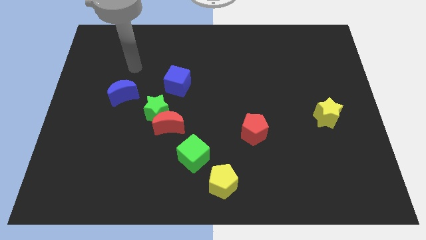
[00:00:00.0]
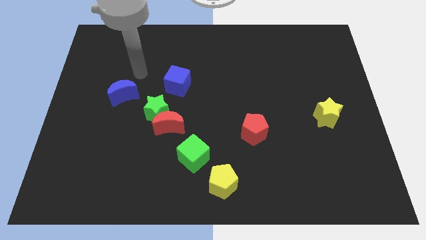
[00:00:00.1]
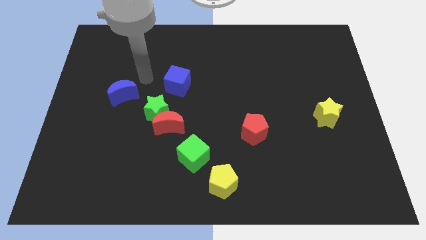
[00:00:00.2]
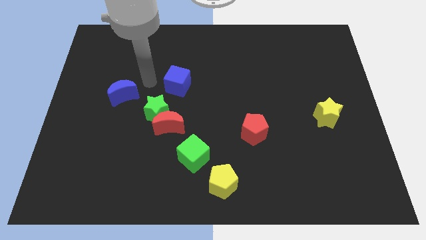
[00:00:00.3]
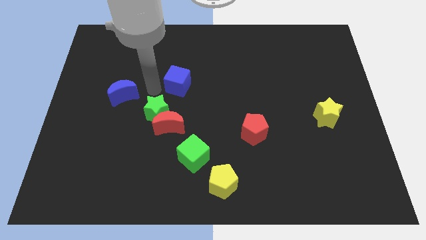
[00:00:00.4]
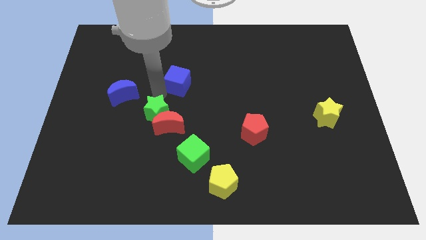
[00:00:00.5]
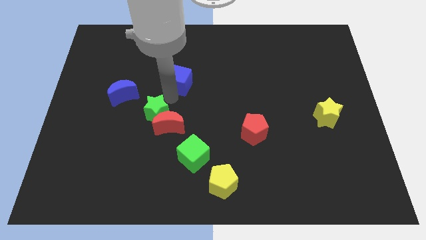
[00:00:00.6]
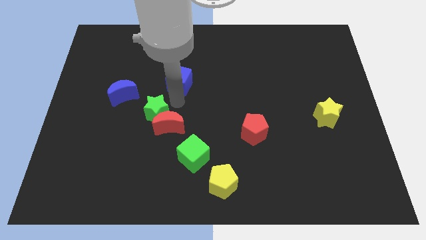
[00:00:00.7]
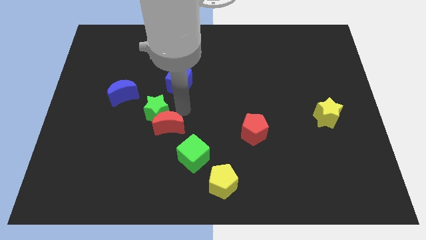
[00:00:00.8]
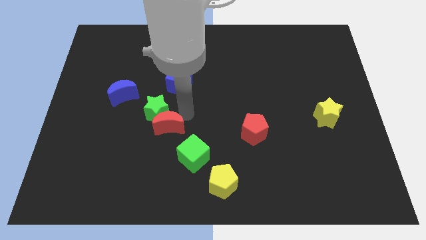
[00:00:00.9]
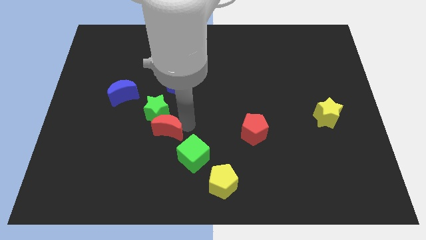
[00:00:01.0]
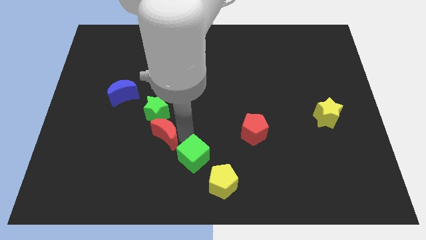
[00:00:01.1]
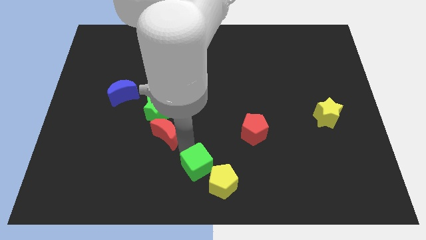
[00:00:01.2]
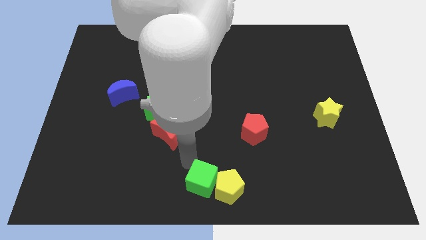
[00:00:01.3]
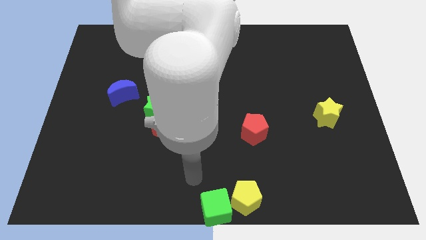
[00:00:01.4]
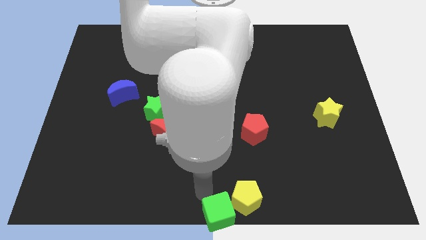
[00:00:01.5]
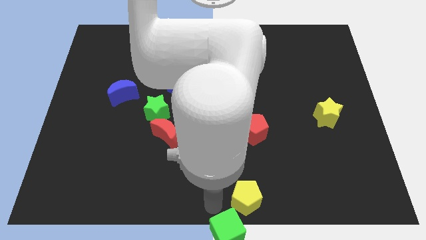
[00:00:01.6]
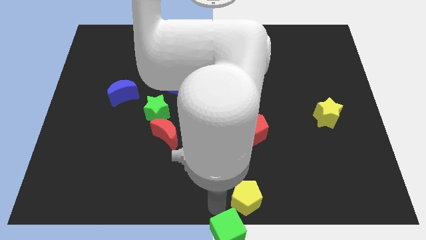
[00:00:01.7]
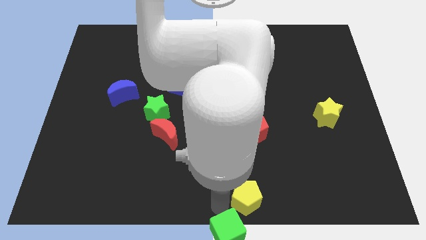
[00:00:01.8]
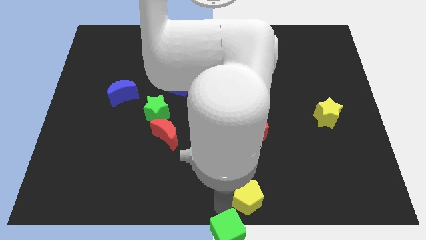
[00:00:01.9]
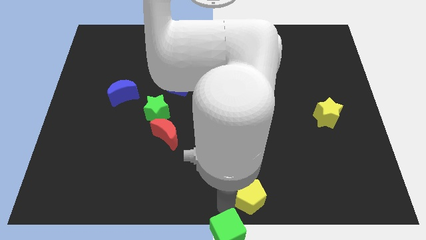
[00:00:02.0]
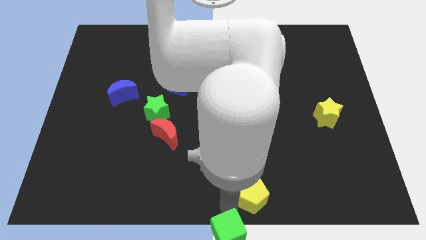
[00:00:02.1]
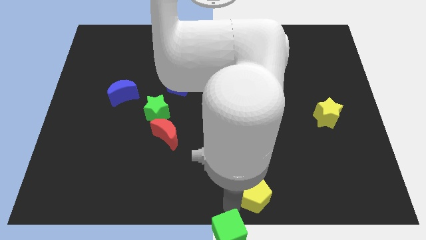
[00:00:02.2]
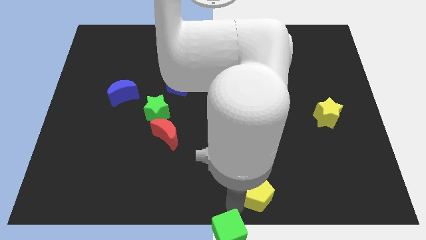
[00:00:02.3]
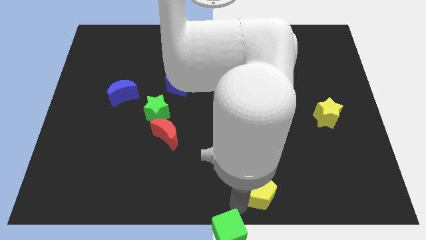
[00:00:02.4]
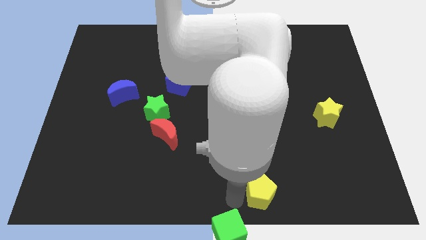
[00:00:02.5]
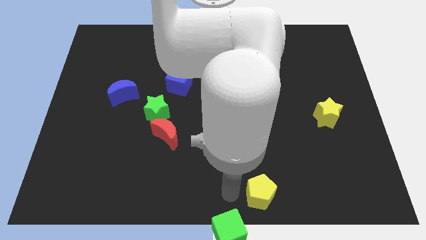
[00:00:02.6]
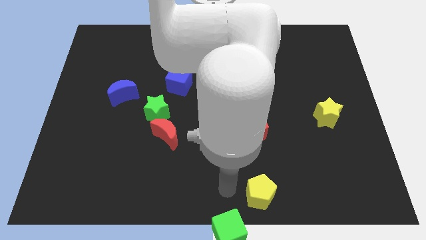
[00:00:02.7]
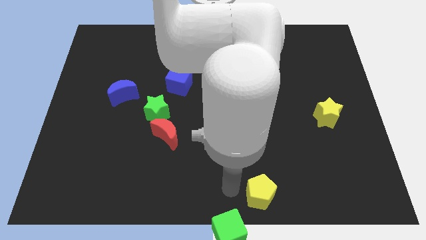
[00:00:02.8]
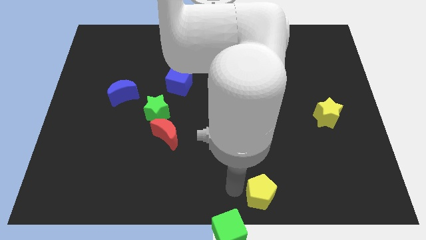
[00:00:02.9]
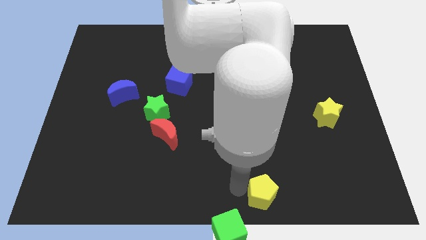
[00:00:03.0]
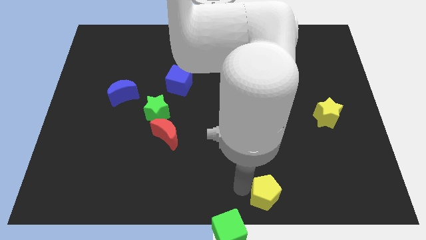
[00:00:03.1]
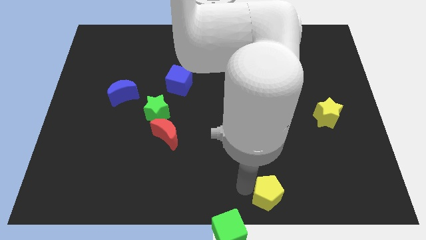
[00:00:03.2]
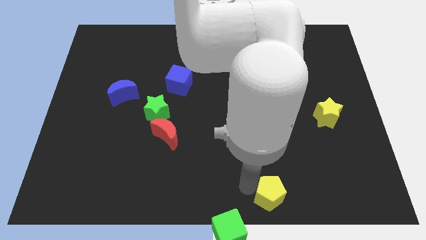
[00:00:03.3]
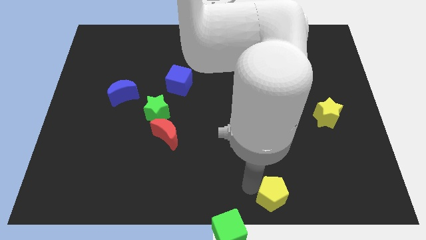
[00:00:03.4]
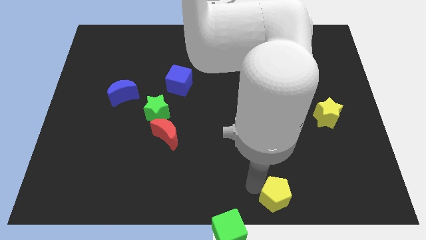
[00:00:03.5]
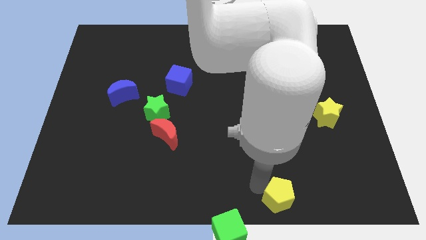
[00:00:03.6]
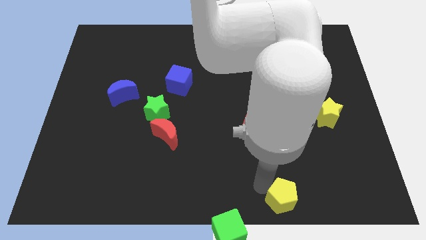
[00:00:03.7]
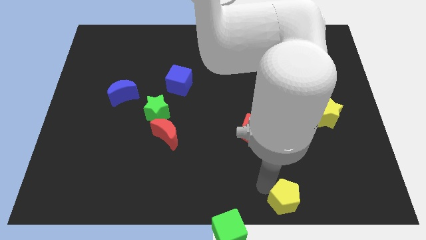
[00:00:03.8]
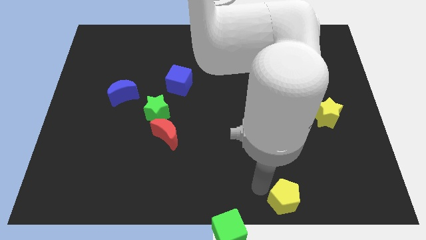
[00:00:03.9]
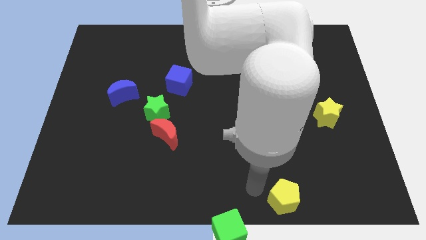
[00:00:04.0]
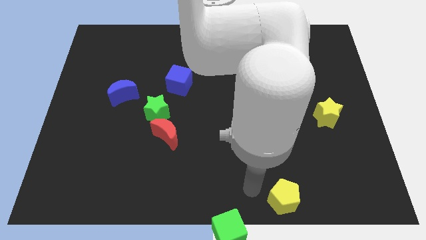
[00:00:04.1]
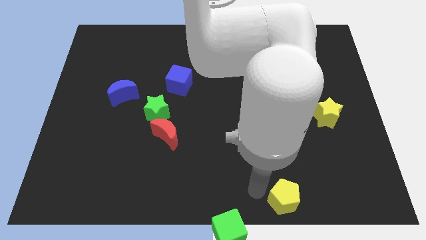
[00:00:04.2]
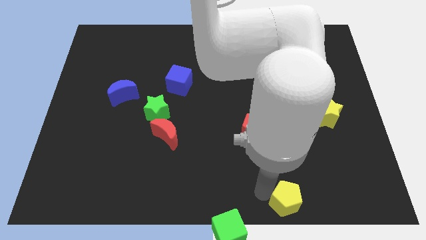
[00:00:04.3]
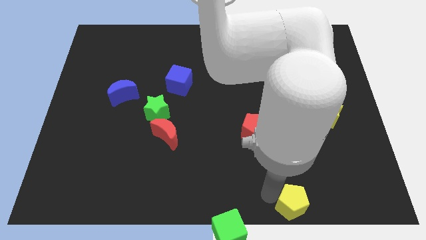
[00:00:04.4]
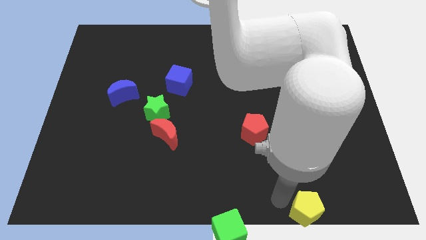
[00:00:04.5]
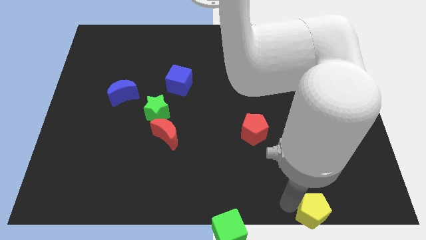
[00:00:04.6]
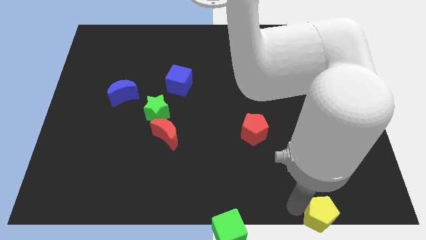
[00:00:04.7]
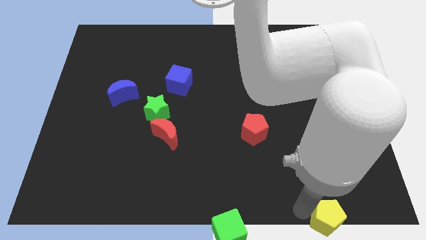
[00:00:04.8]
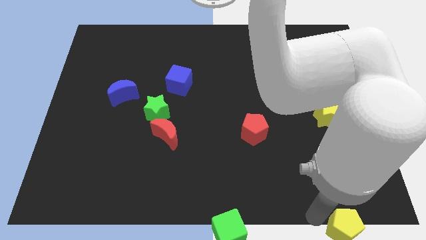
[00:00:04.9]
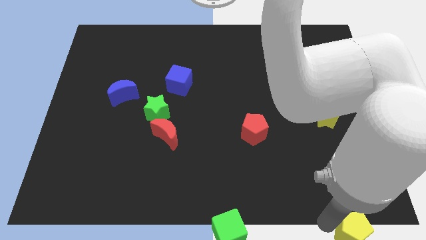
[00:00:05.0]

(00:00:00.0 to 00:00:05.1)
move the yellow pentagon to the bottom right of the board

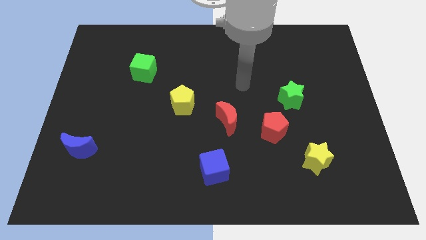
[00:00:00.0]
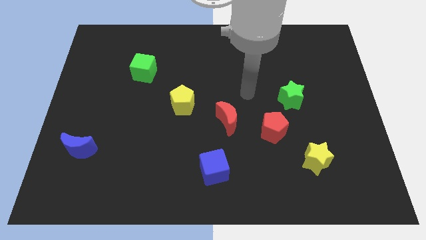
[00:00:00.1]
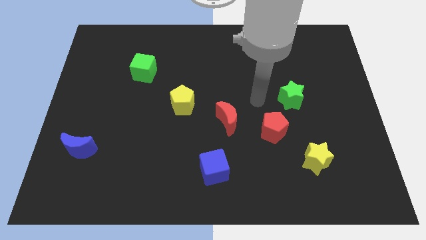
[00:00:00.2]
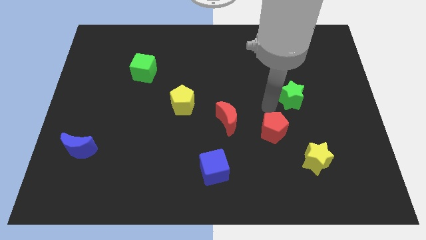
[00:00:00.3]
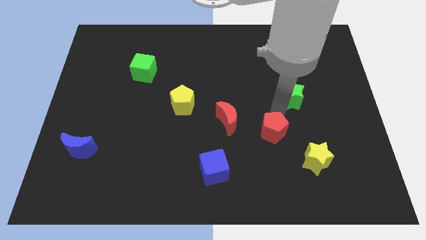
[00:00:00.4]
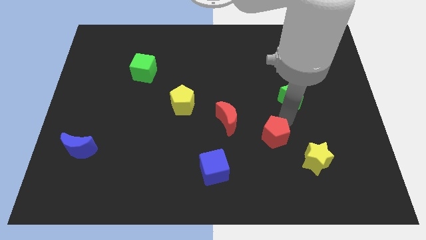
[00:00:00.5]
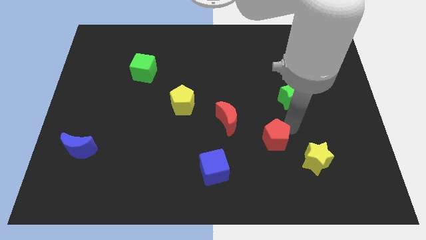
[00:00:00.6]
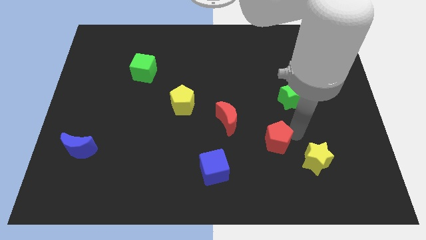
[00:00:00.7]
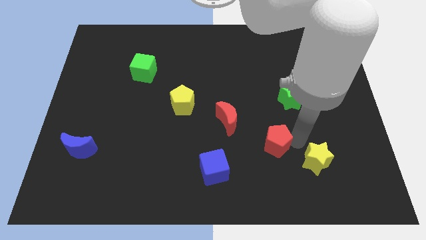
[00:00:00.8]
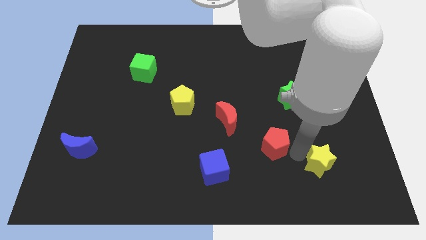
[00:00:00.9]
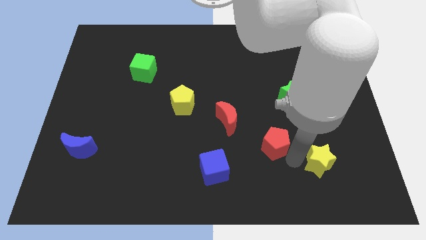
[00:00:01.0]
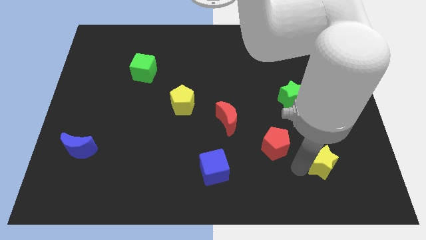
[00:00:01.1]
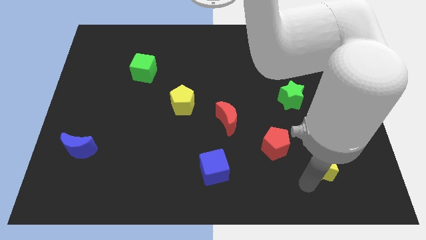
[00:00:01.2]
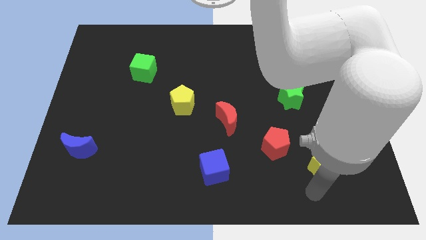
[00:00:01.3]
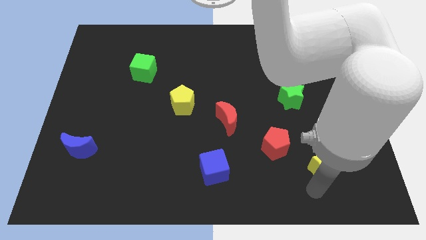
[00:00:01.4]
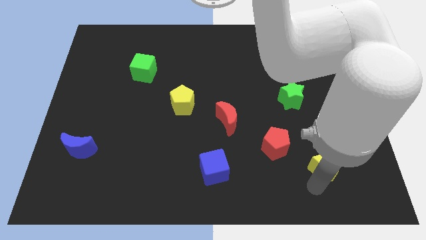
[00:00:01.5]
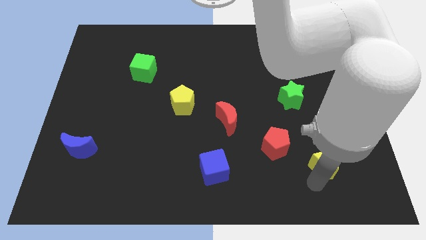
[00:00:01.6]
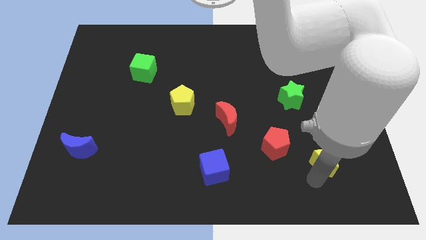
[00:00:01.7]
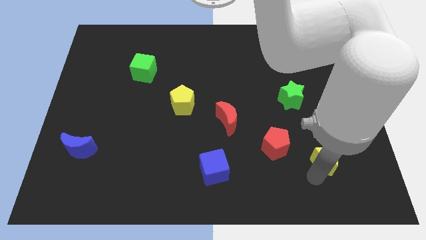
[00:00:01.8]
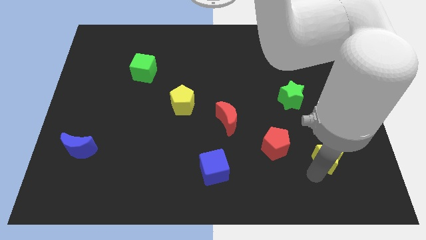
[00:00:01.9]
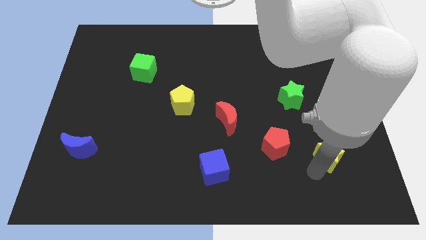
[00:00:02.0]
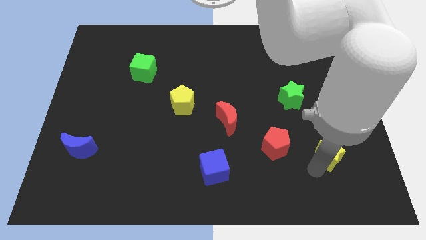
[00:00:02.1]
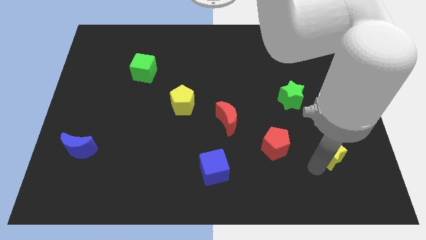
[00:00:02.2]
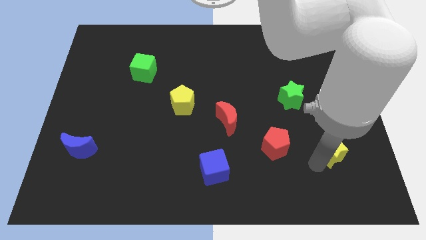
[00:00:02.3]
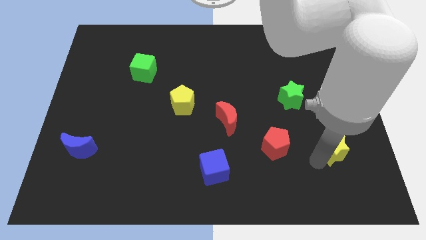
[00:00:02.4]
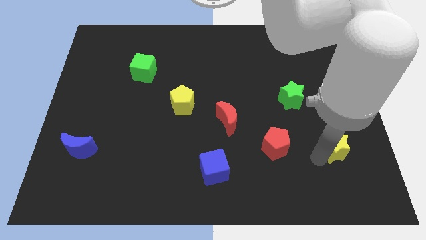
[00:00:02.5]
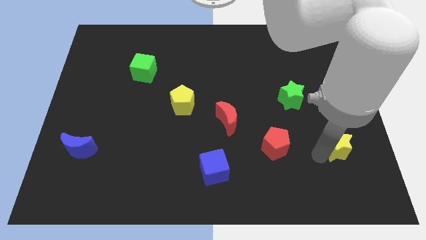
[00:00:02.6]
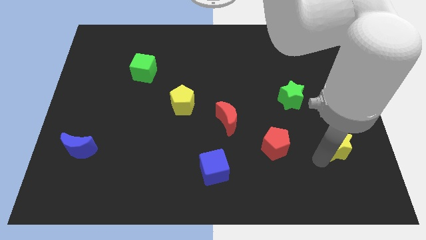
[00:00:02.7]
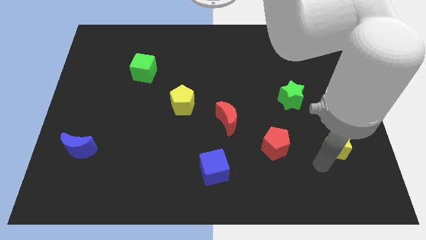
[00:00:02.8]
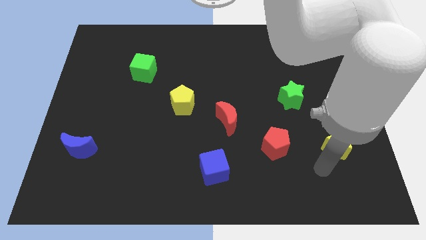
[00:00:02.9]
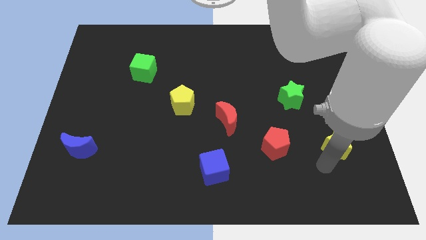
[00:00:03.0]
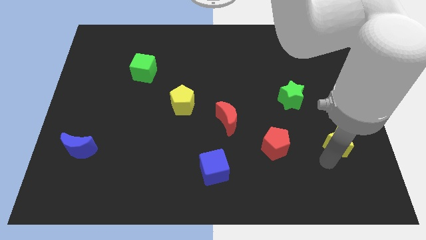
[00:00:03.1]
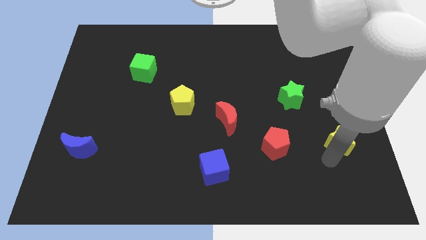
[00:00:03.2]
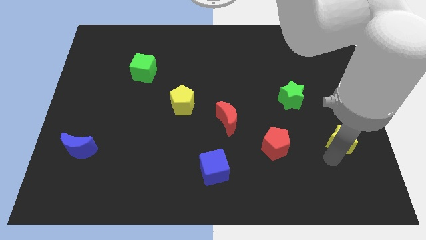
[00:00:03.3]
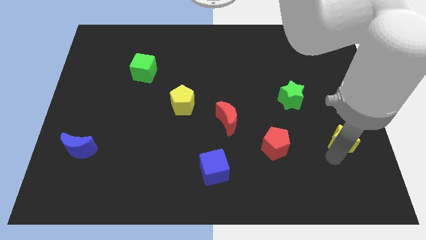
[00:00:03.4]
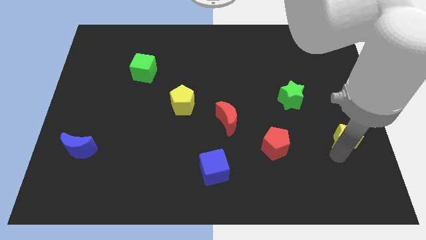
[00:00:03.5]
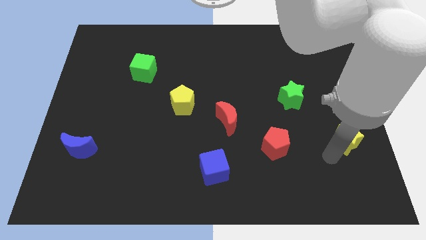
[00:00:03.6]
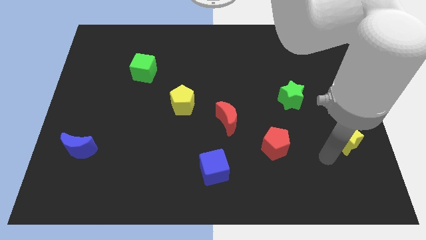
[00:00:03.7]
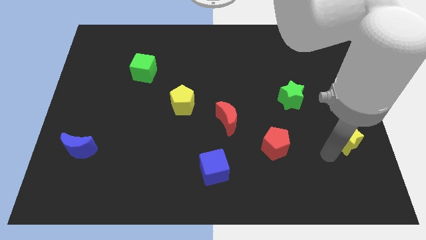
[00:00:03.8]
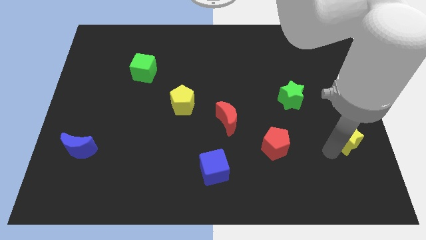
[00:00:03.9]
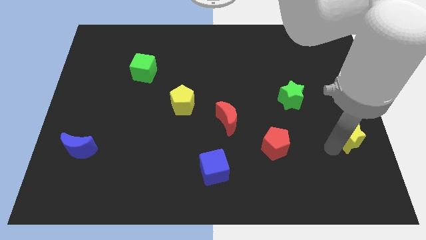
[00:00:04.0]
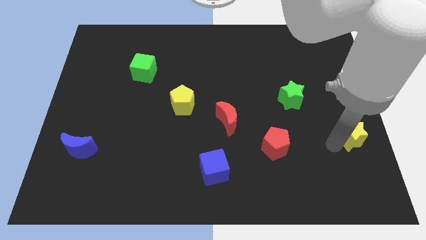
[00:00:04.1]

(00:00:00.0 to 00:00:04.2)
push the yellow star to the right side of the board
